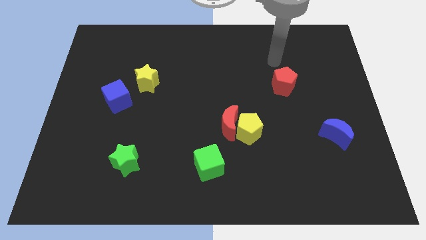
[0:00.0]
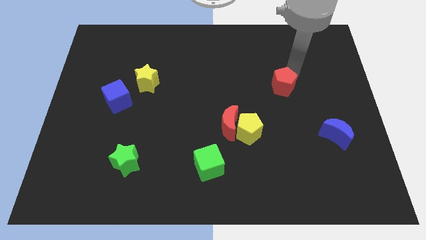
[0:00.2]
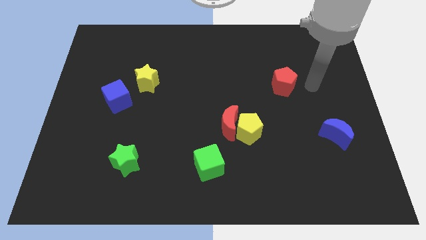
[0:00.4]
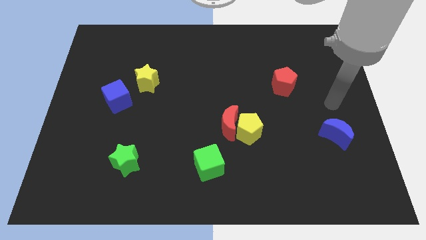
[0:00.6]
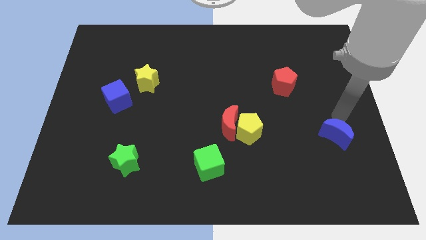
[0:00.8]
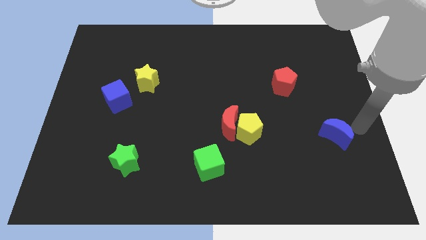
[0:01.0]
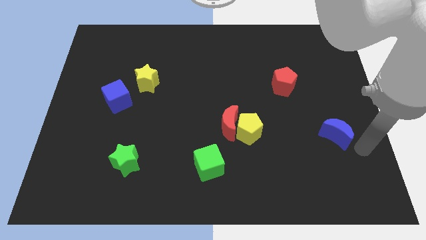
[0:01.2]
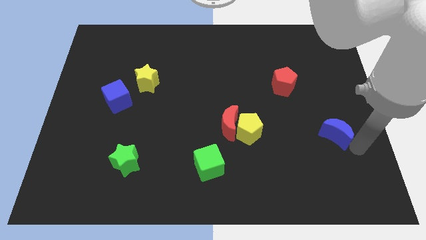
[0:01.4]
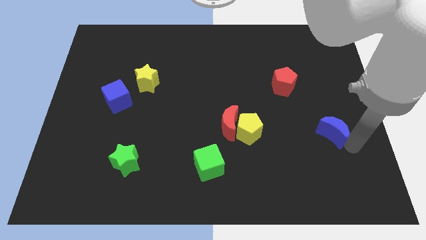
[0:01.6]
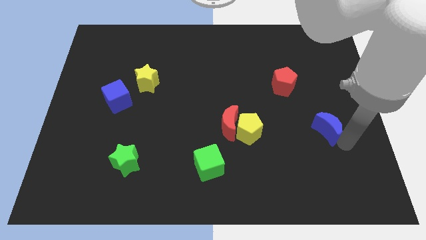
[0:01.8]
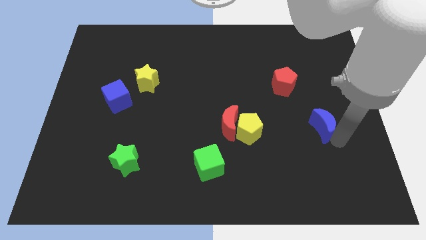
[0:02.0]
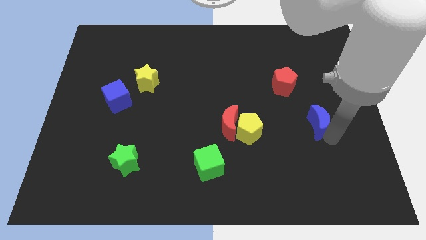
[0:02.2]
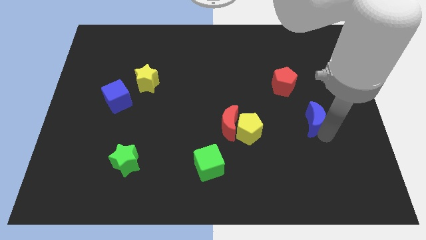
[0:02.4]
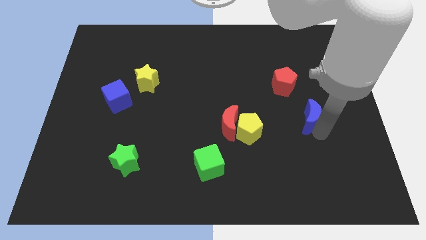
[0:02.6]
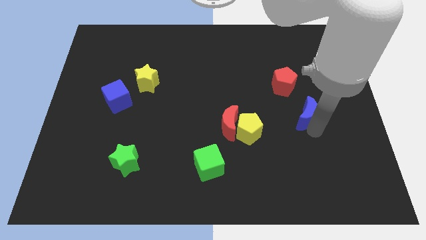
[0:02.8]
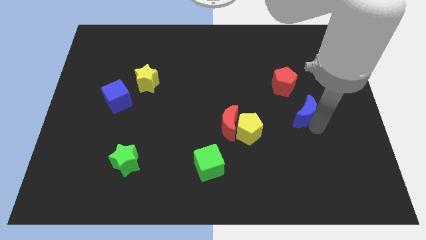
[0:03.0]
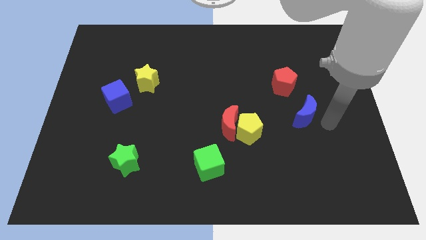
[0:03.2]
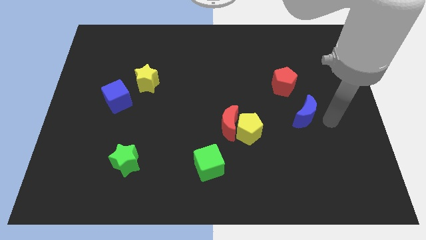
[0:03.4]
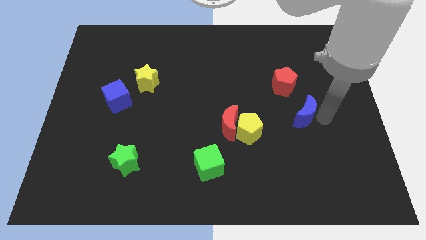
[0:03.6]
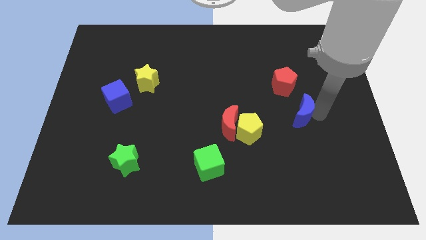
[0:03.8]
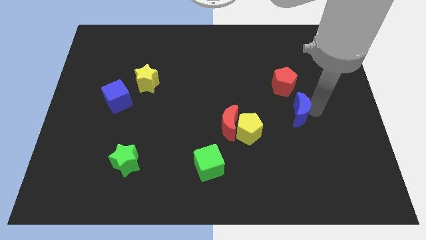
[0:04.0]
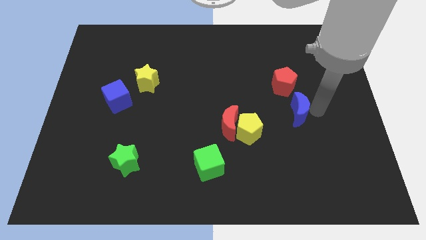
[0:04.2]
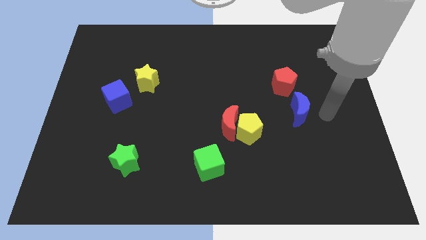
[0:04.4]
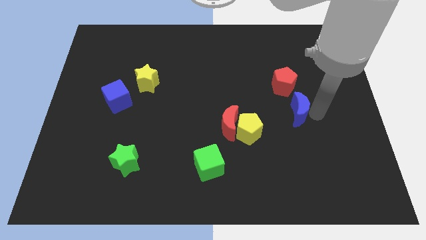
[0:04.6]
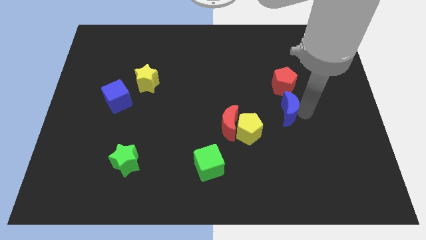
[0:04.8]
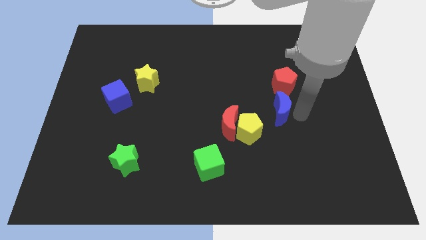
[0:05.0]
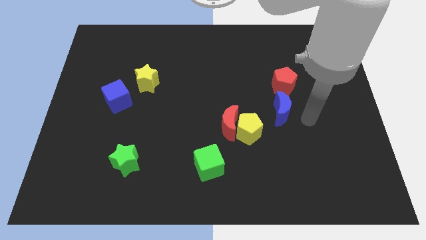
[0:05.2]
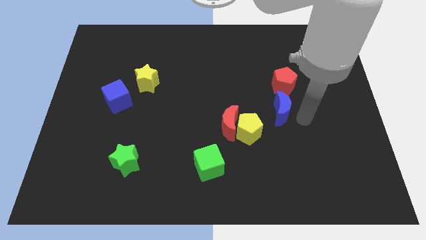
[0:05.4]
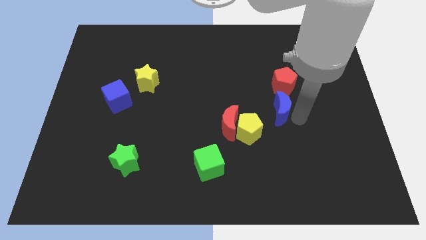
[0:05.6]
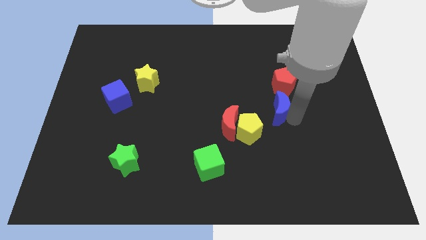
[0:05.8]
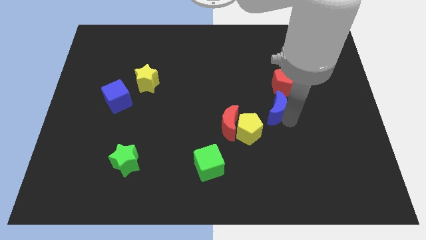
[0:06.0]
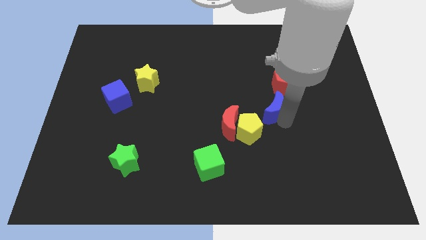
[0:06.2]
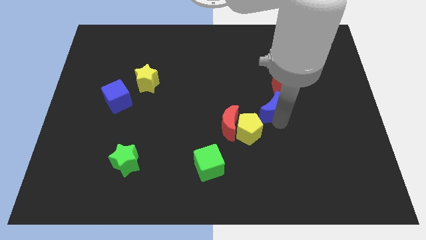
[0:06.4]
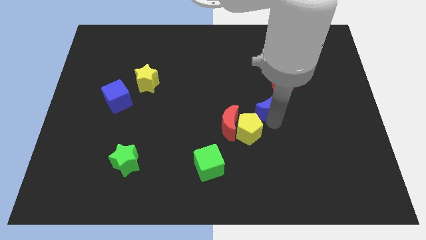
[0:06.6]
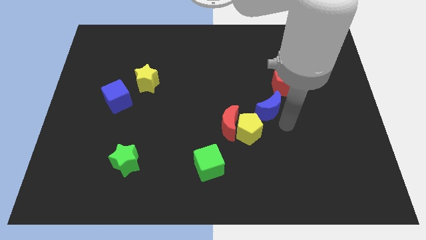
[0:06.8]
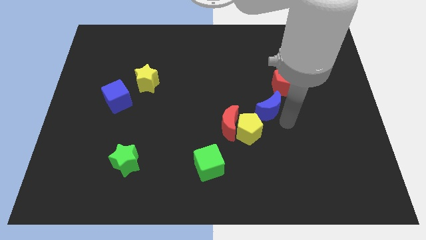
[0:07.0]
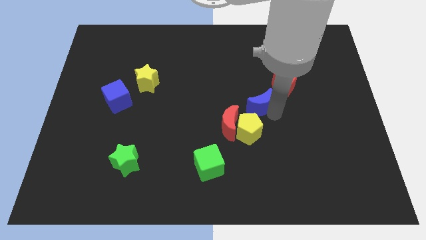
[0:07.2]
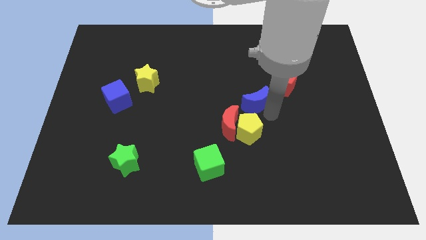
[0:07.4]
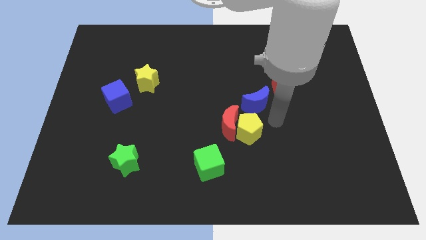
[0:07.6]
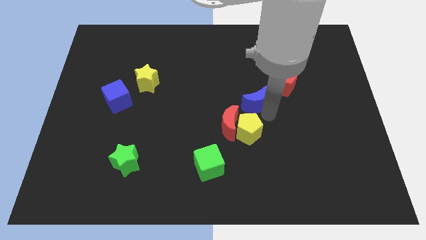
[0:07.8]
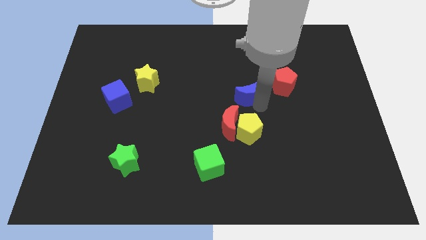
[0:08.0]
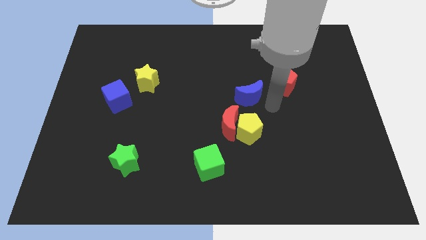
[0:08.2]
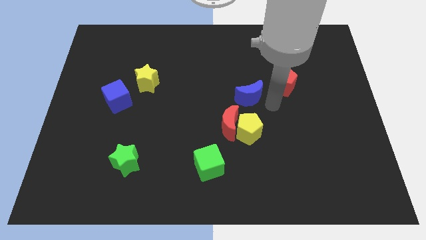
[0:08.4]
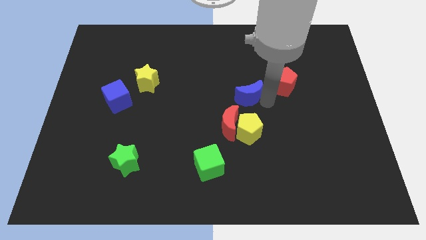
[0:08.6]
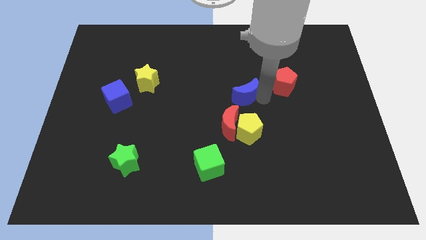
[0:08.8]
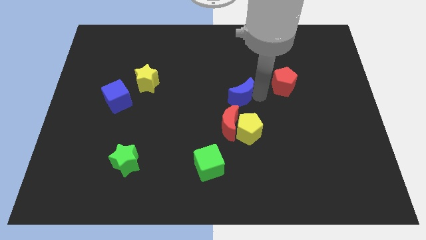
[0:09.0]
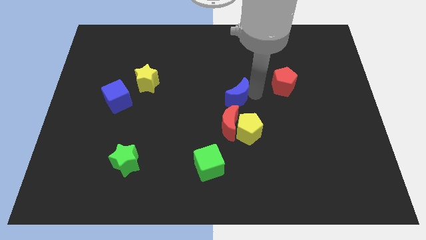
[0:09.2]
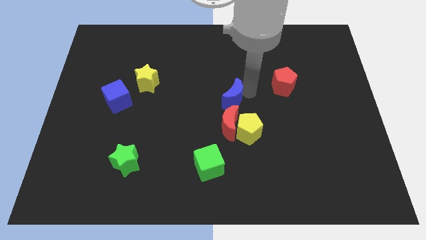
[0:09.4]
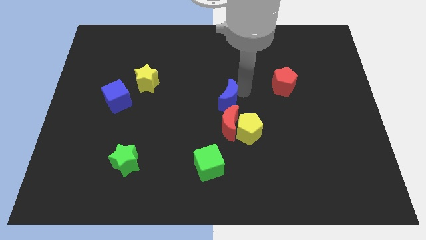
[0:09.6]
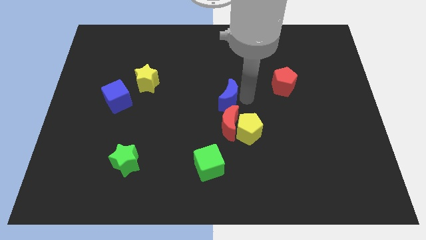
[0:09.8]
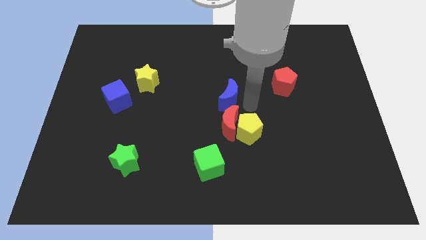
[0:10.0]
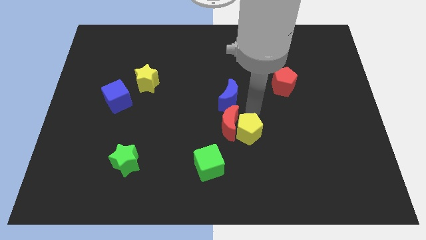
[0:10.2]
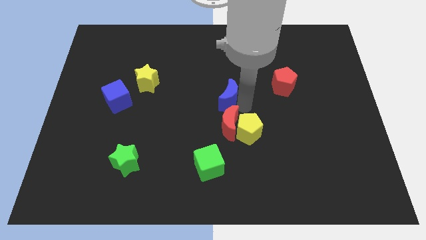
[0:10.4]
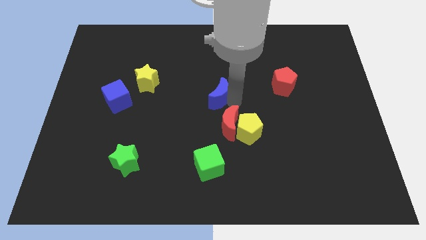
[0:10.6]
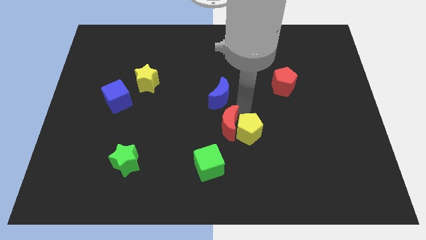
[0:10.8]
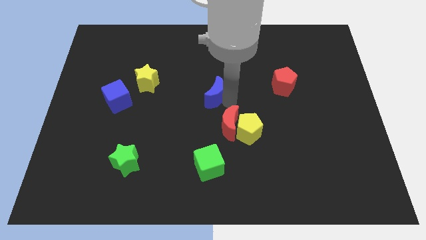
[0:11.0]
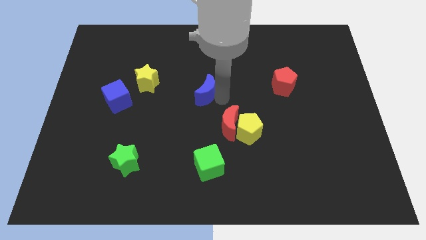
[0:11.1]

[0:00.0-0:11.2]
put the blue moon right of the yellow star

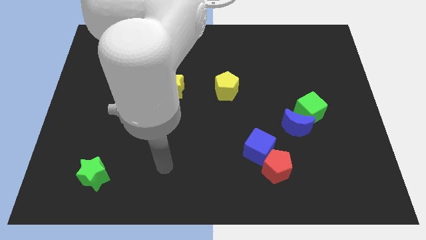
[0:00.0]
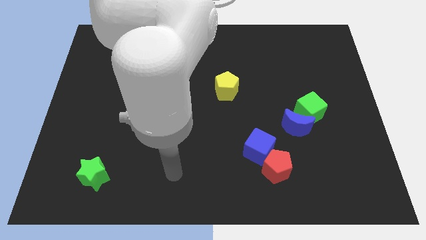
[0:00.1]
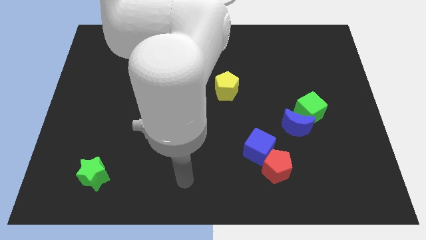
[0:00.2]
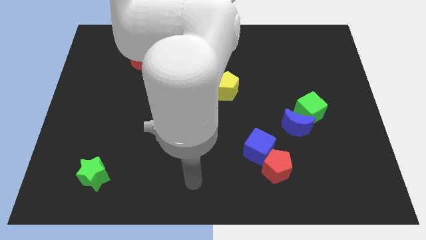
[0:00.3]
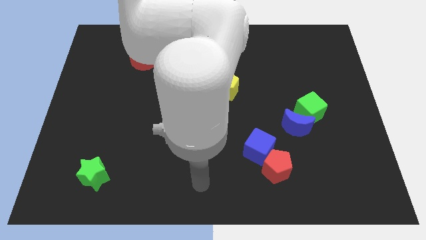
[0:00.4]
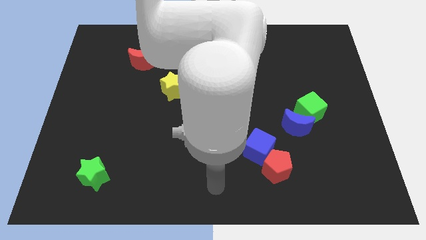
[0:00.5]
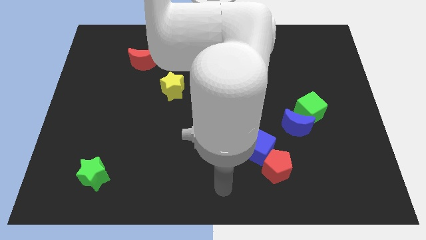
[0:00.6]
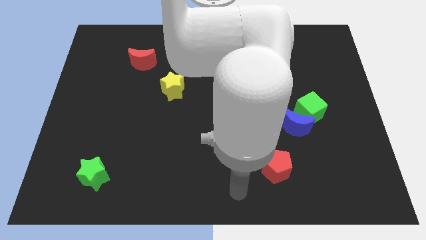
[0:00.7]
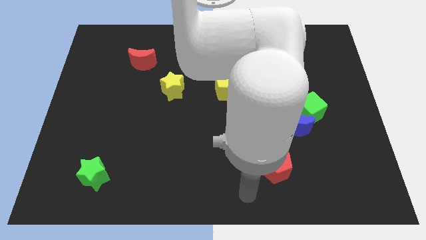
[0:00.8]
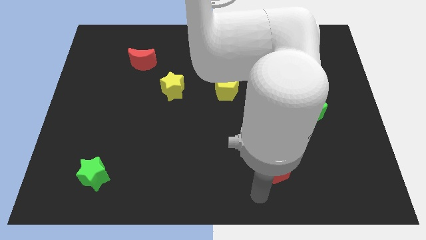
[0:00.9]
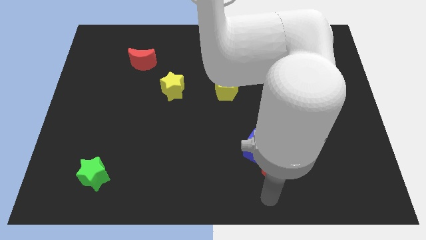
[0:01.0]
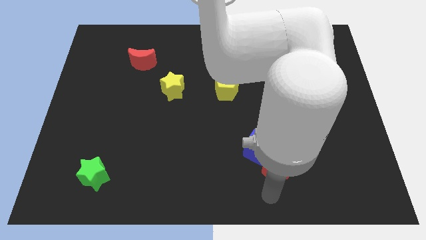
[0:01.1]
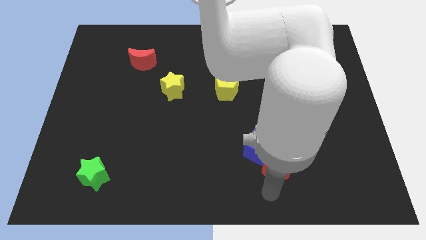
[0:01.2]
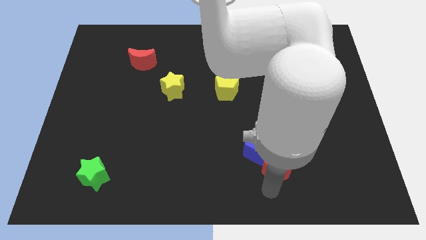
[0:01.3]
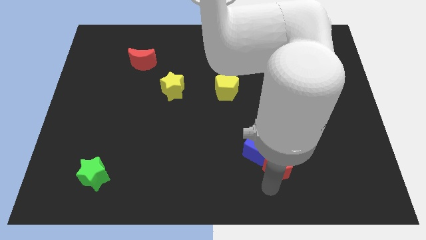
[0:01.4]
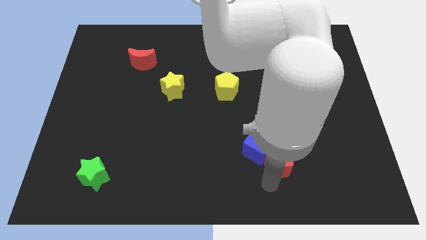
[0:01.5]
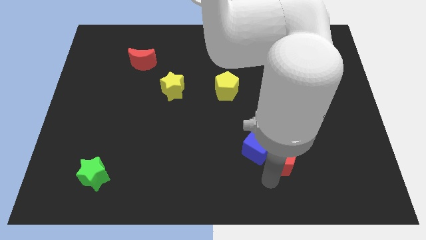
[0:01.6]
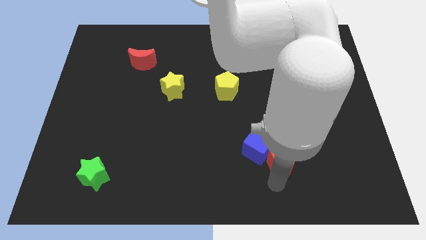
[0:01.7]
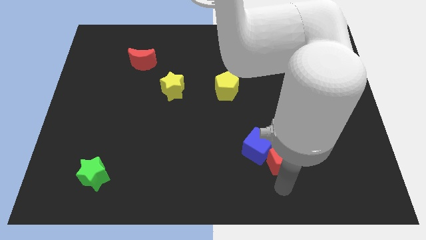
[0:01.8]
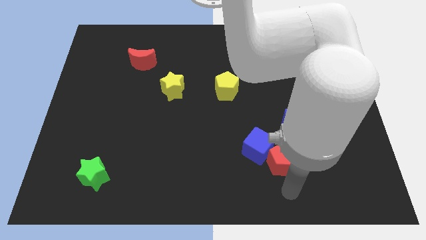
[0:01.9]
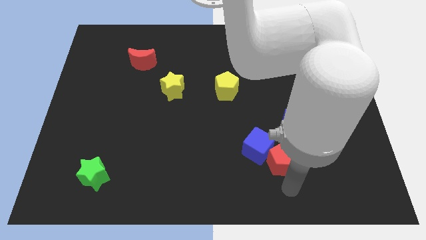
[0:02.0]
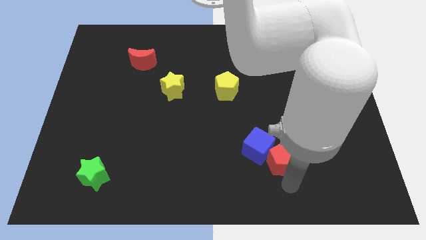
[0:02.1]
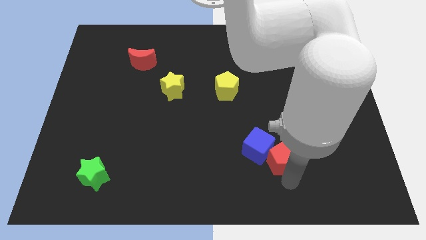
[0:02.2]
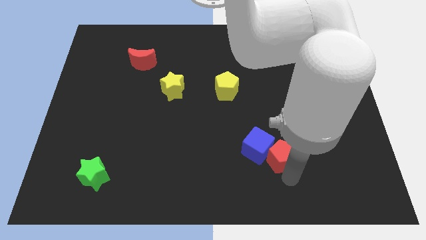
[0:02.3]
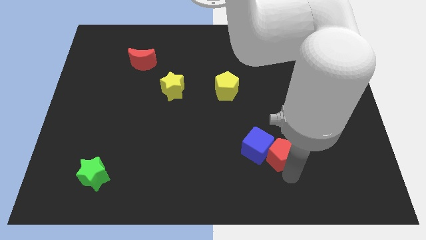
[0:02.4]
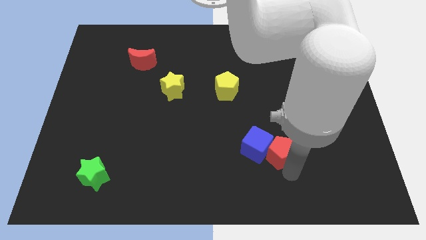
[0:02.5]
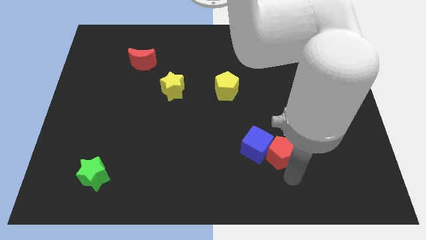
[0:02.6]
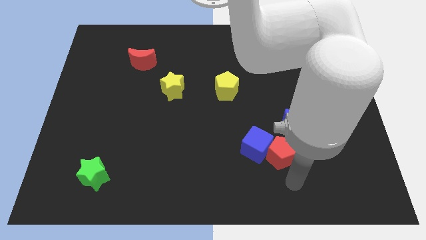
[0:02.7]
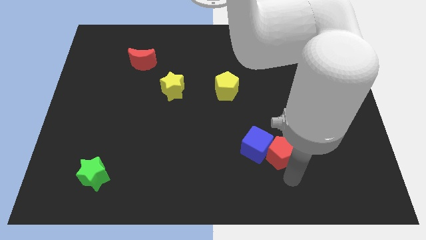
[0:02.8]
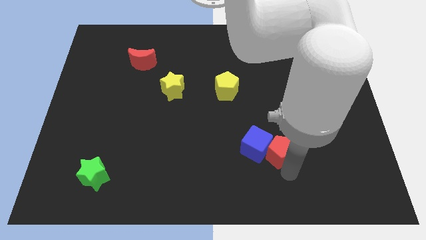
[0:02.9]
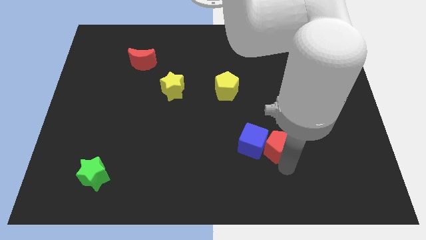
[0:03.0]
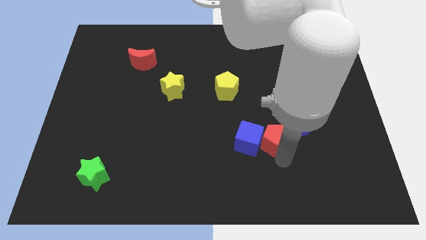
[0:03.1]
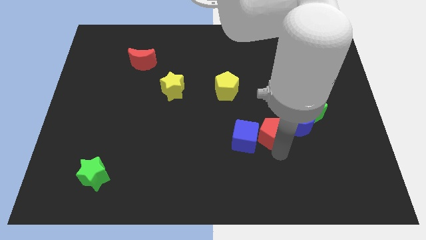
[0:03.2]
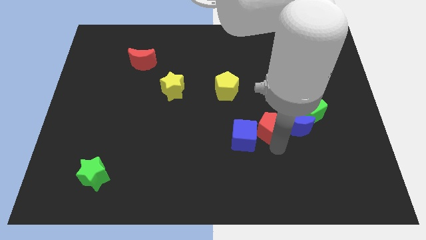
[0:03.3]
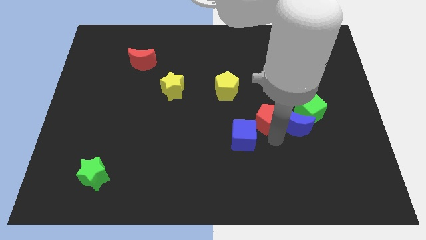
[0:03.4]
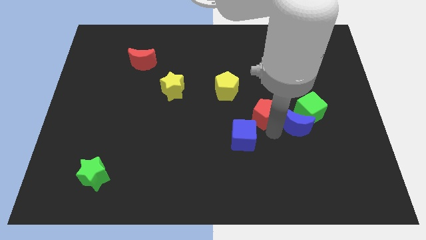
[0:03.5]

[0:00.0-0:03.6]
put the red pentagon diagonally down and to the right of the yellow pentagon
